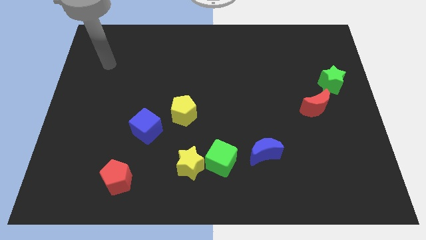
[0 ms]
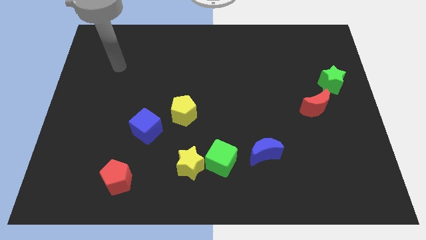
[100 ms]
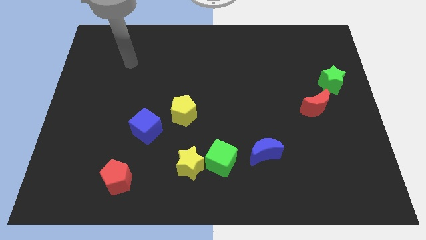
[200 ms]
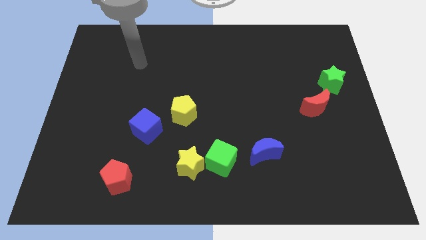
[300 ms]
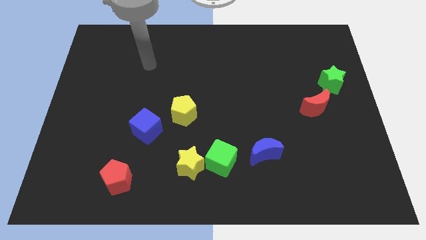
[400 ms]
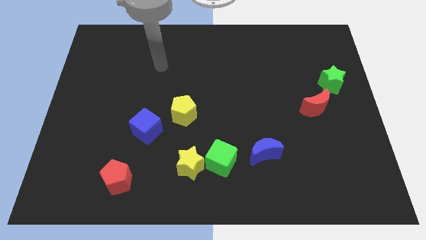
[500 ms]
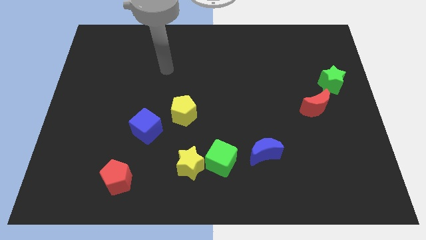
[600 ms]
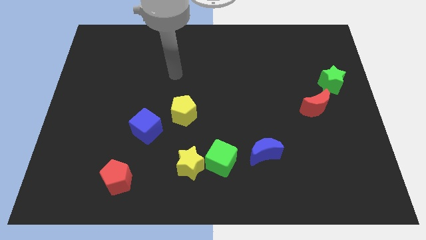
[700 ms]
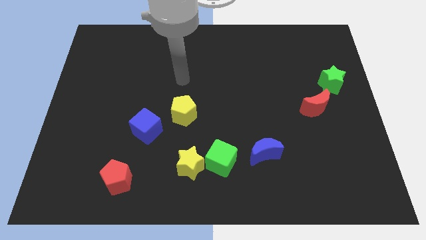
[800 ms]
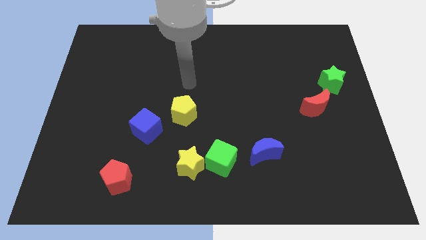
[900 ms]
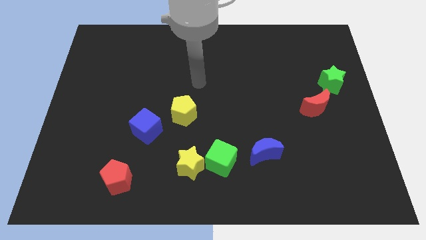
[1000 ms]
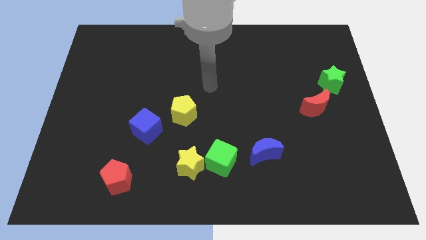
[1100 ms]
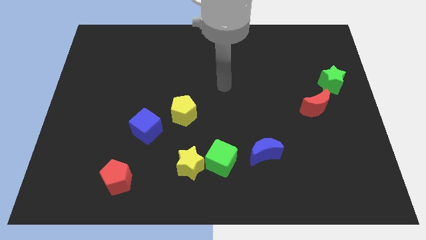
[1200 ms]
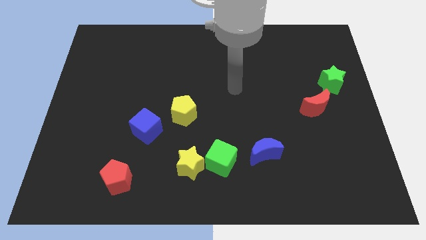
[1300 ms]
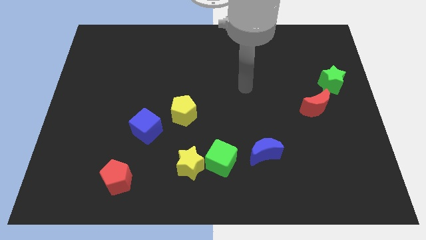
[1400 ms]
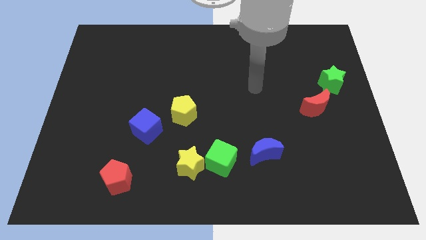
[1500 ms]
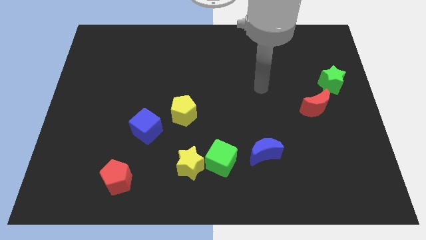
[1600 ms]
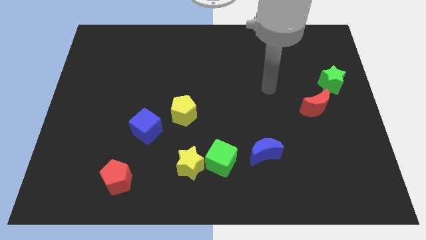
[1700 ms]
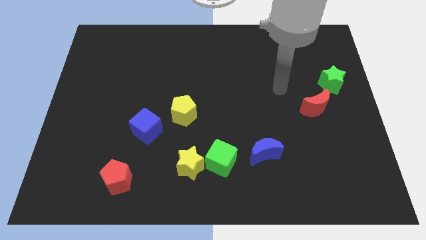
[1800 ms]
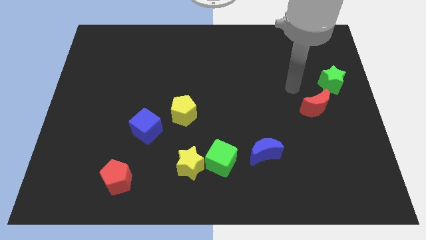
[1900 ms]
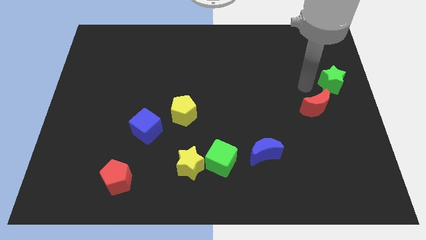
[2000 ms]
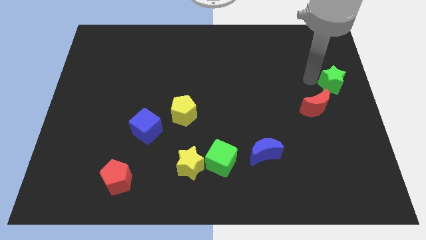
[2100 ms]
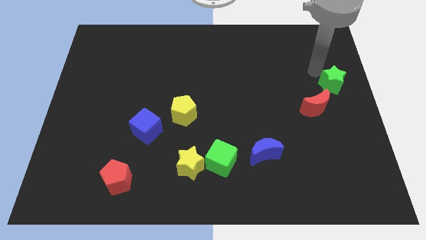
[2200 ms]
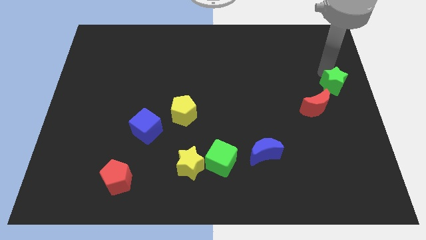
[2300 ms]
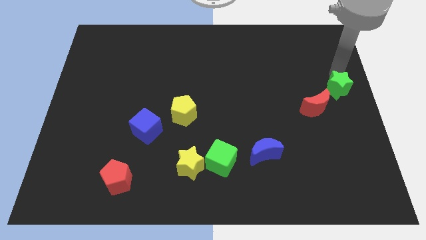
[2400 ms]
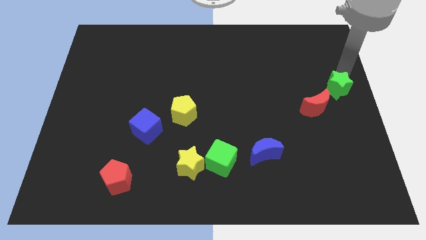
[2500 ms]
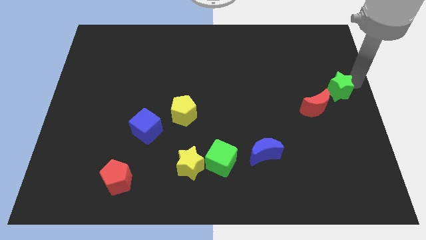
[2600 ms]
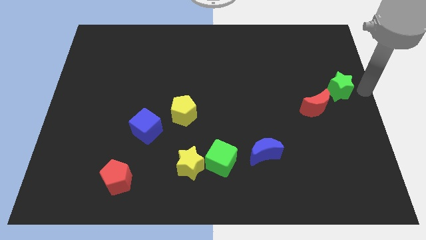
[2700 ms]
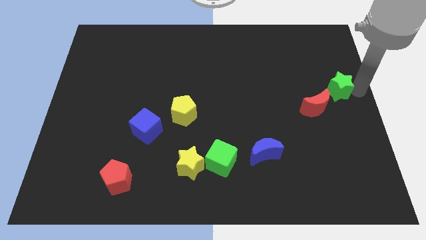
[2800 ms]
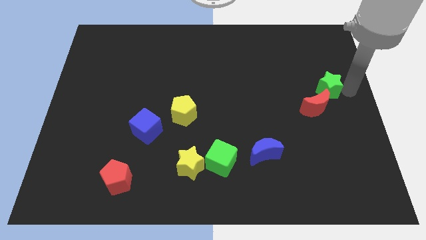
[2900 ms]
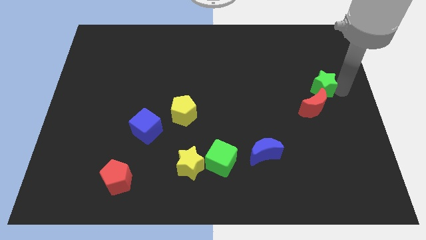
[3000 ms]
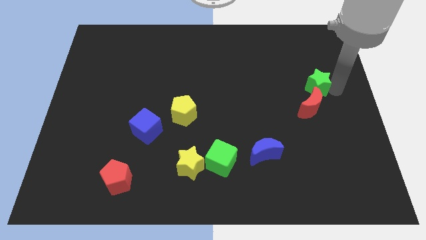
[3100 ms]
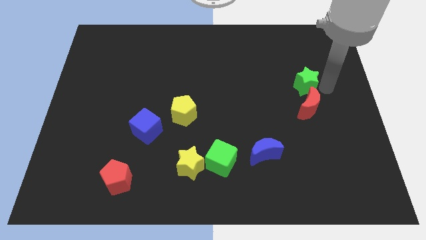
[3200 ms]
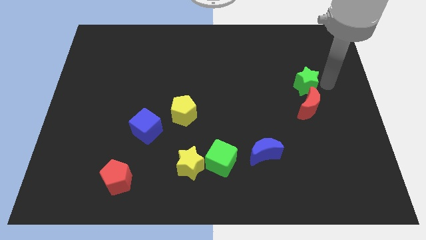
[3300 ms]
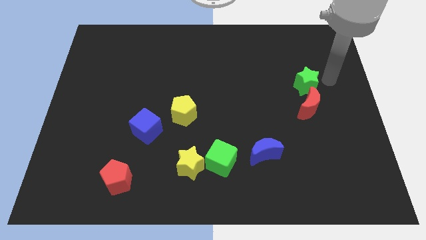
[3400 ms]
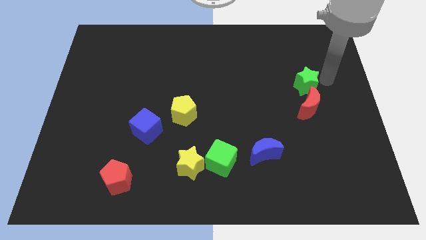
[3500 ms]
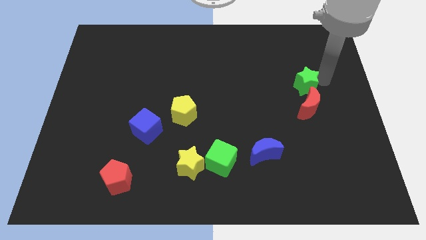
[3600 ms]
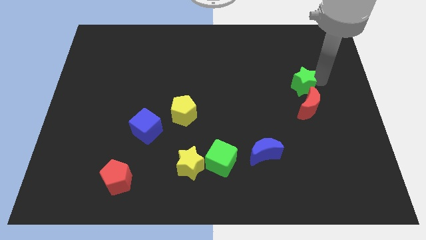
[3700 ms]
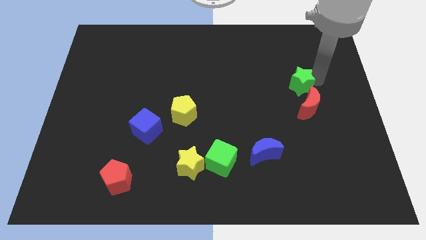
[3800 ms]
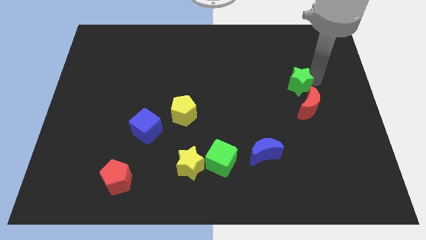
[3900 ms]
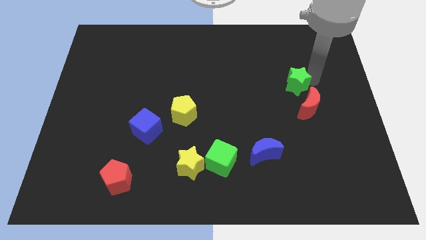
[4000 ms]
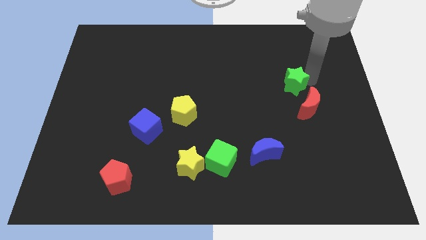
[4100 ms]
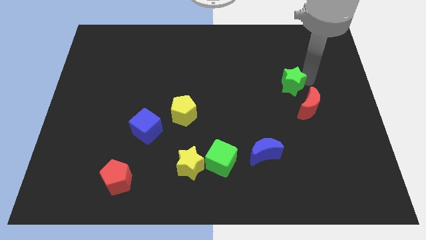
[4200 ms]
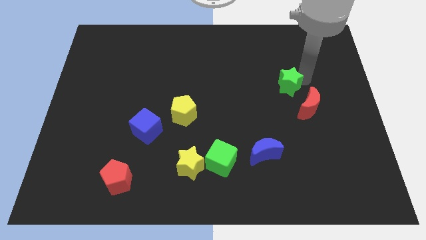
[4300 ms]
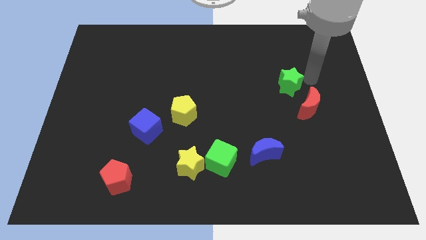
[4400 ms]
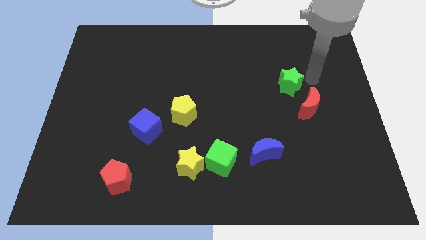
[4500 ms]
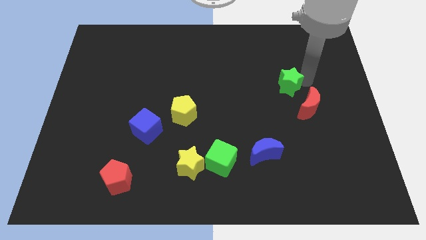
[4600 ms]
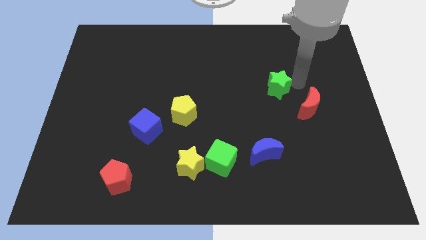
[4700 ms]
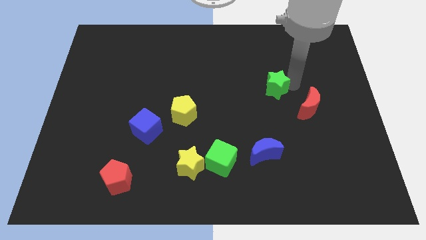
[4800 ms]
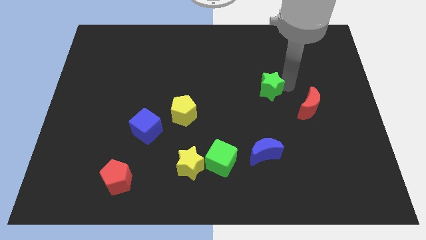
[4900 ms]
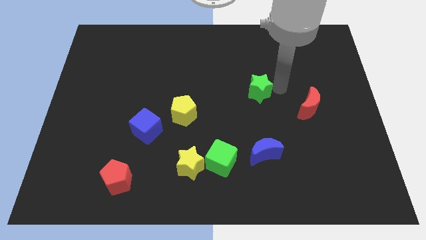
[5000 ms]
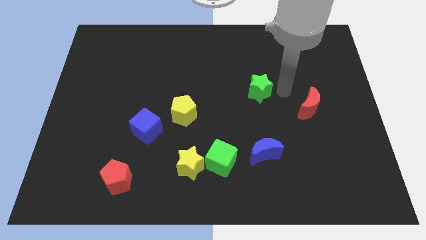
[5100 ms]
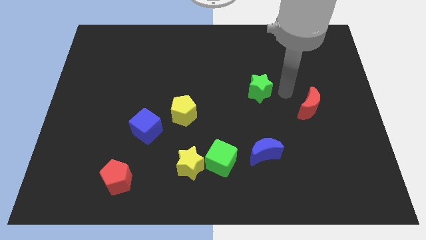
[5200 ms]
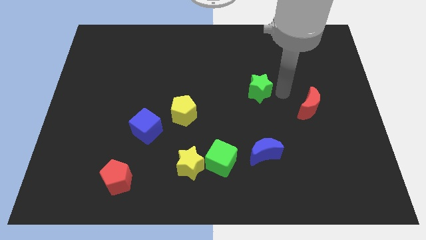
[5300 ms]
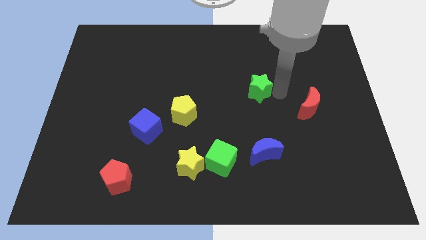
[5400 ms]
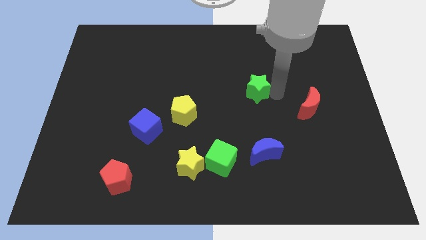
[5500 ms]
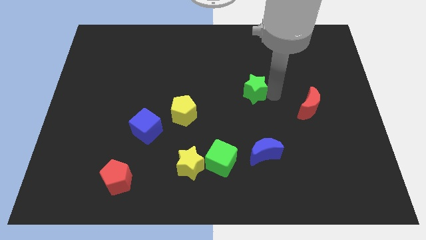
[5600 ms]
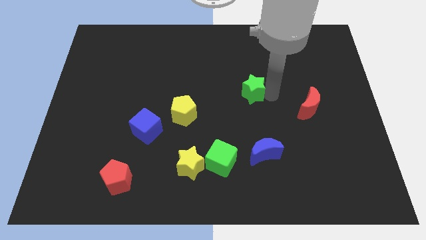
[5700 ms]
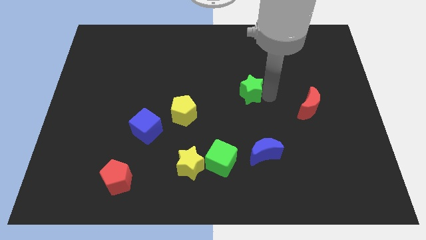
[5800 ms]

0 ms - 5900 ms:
move the green star left

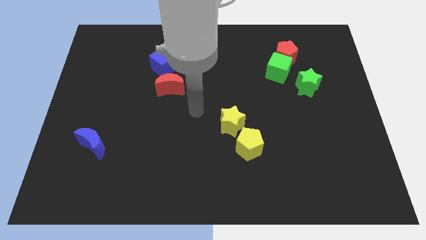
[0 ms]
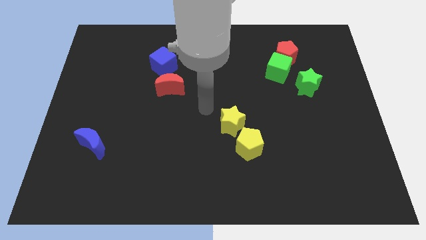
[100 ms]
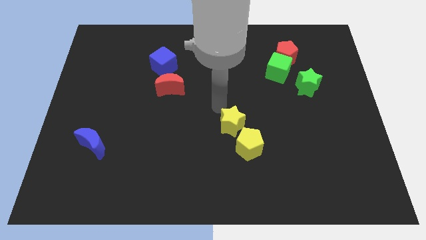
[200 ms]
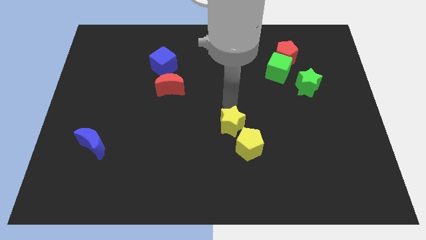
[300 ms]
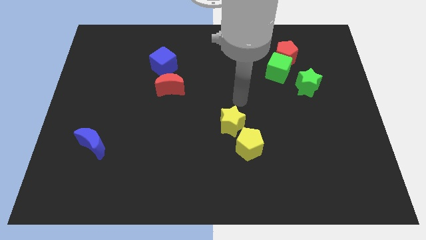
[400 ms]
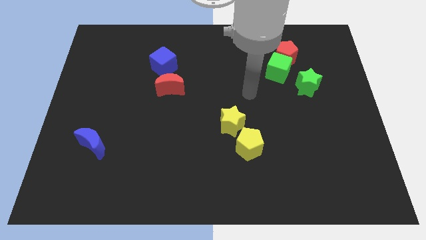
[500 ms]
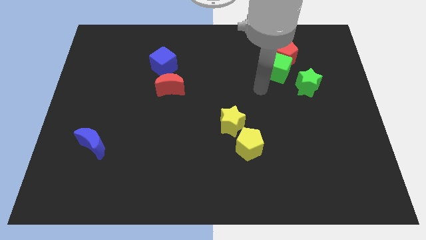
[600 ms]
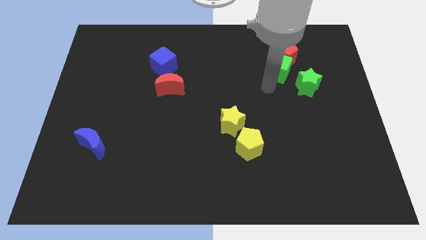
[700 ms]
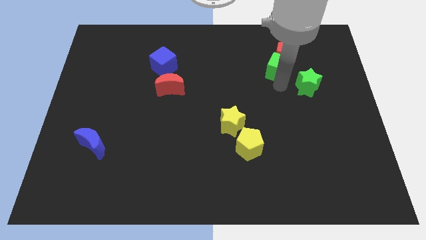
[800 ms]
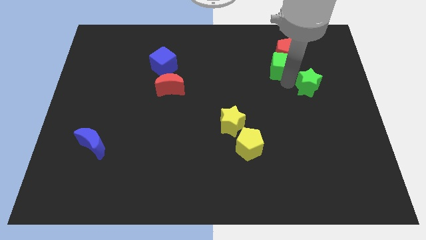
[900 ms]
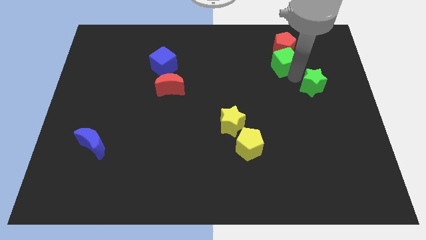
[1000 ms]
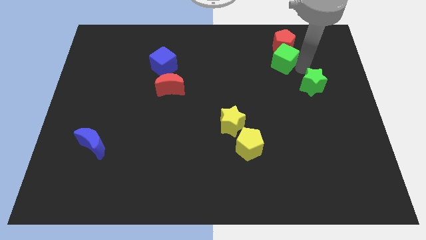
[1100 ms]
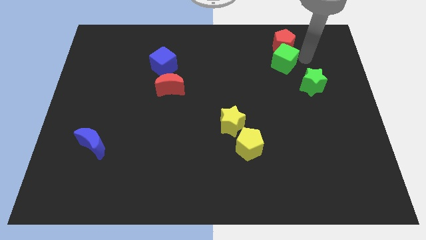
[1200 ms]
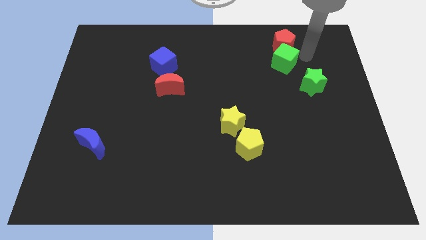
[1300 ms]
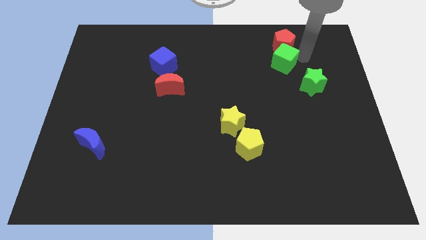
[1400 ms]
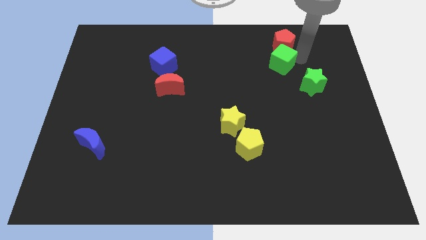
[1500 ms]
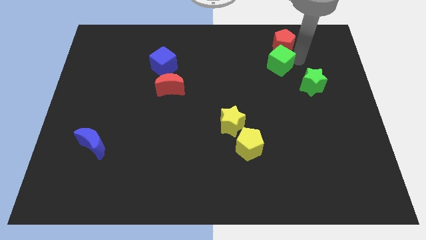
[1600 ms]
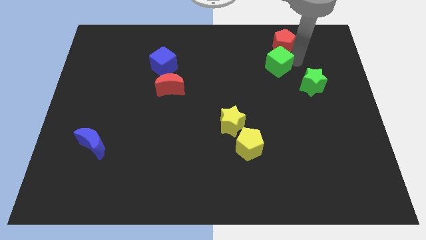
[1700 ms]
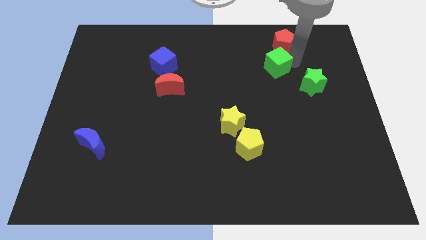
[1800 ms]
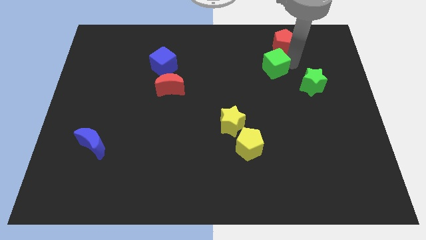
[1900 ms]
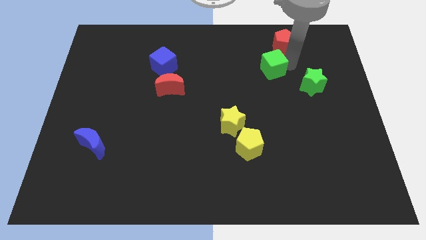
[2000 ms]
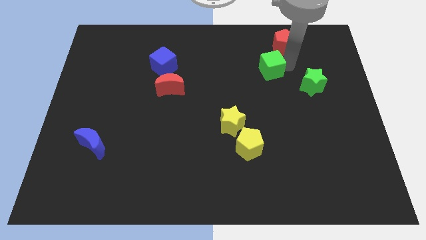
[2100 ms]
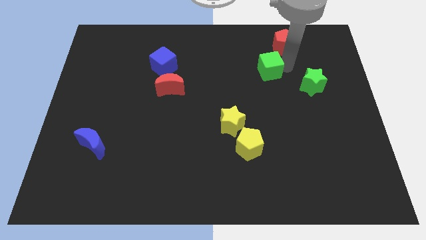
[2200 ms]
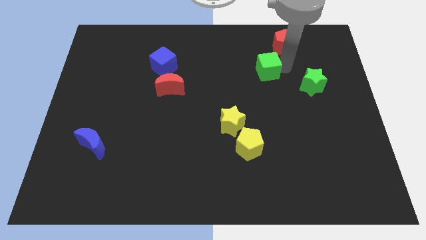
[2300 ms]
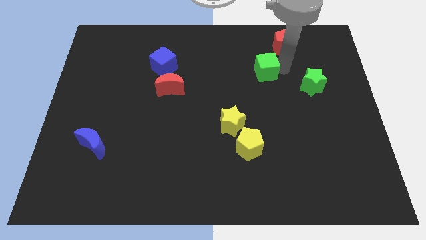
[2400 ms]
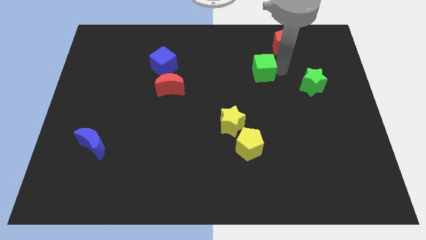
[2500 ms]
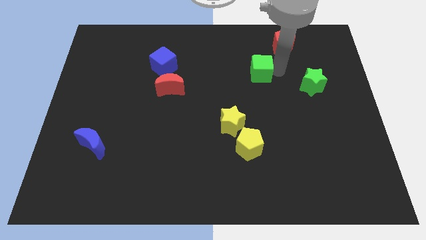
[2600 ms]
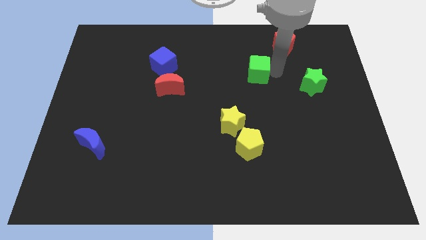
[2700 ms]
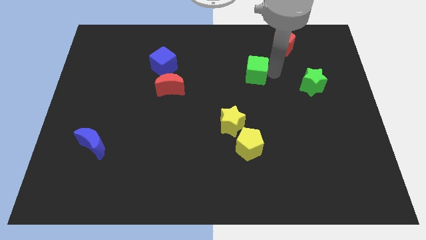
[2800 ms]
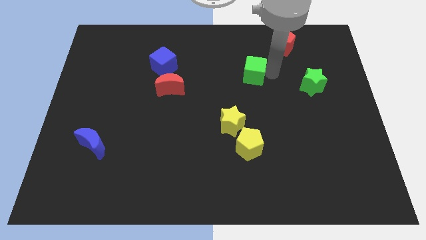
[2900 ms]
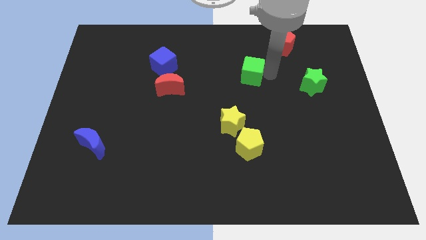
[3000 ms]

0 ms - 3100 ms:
slightly move the green cube left
